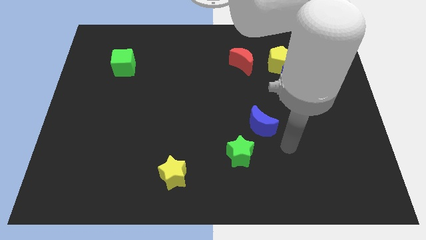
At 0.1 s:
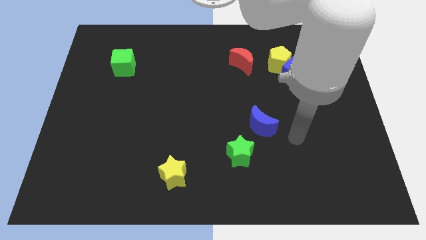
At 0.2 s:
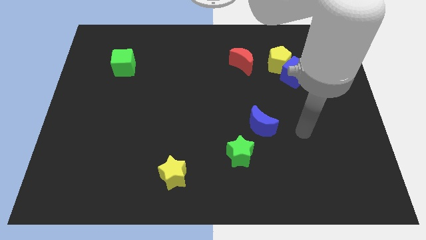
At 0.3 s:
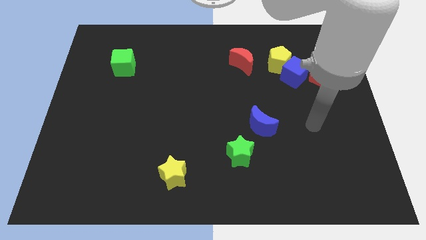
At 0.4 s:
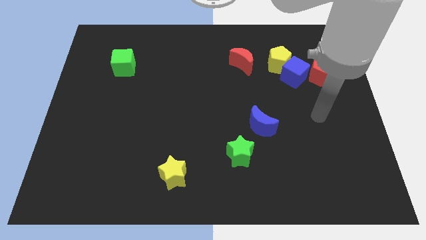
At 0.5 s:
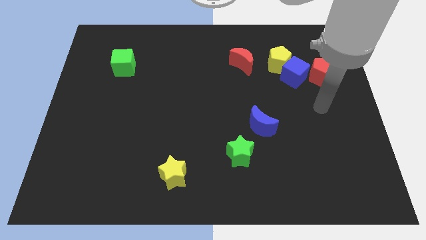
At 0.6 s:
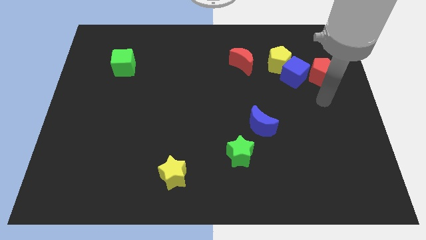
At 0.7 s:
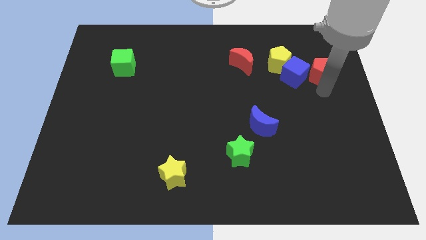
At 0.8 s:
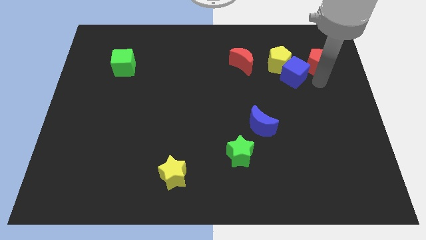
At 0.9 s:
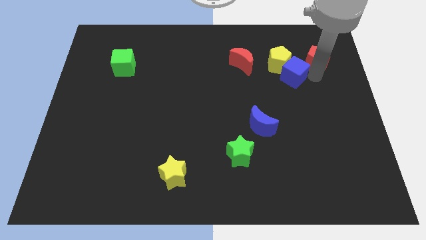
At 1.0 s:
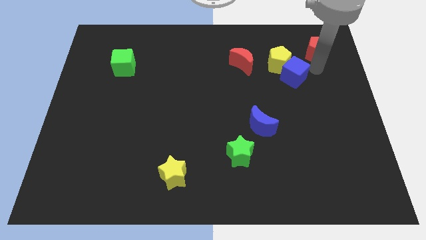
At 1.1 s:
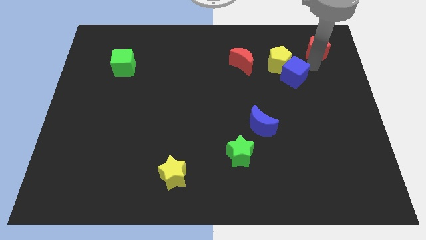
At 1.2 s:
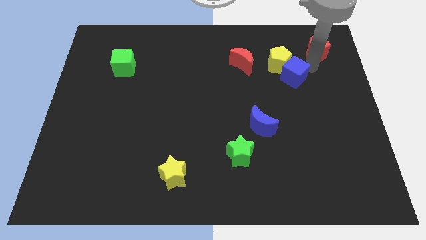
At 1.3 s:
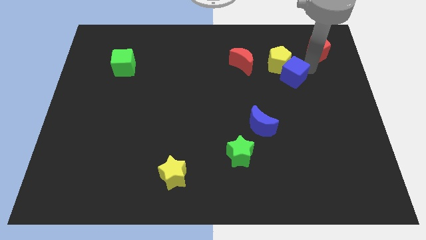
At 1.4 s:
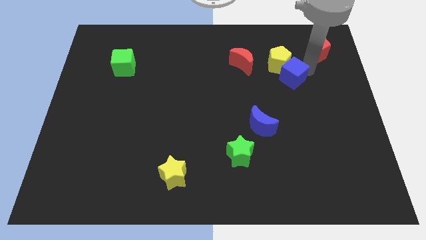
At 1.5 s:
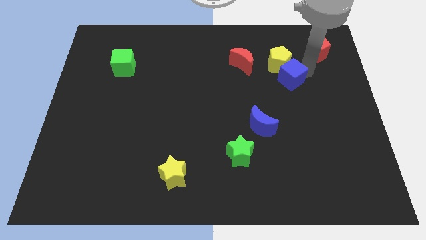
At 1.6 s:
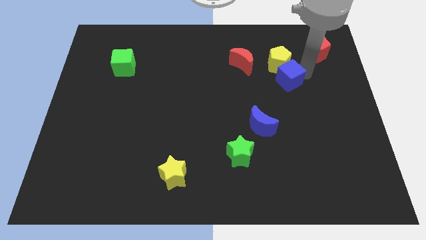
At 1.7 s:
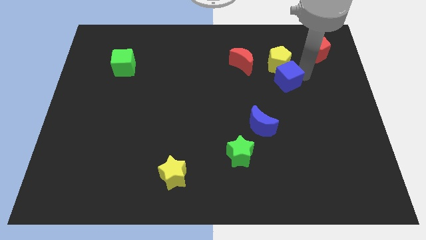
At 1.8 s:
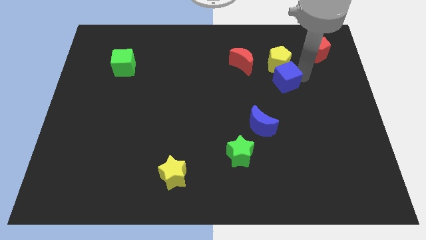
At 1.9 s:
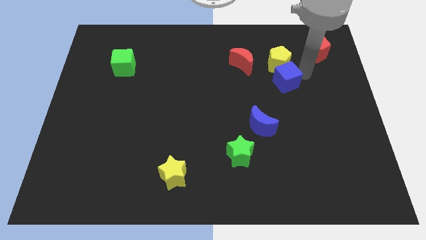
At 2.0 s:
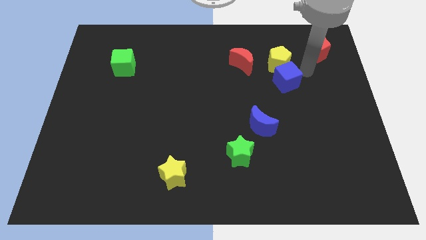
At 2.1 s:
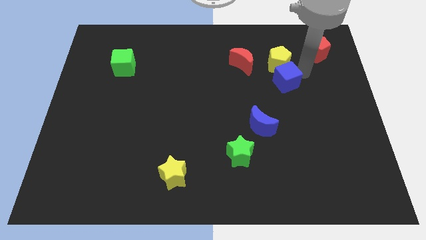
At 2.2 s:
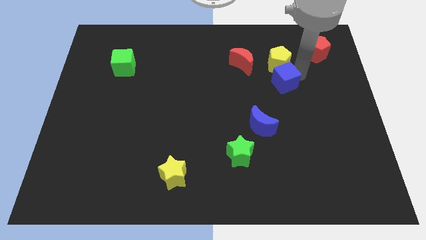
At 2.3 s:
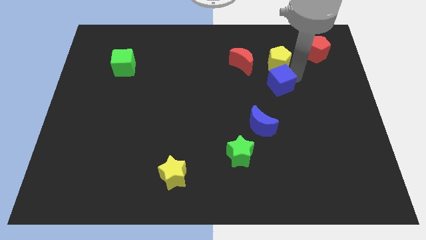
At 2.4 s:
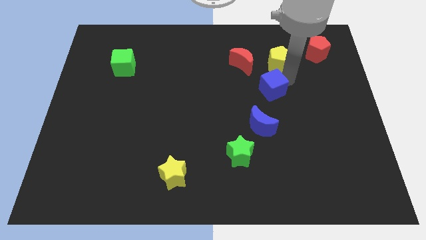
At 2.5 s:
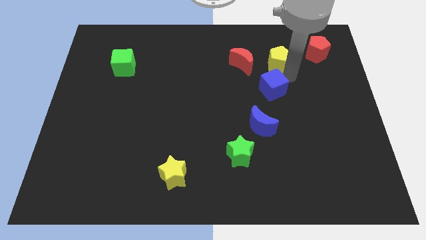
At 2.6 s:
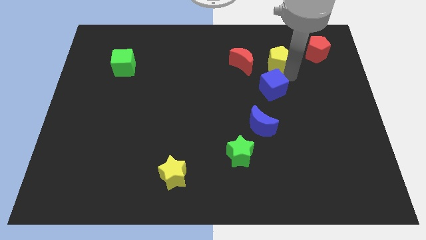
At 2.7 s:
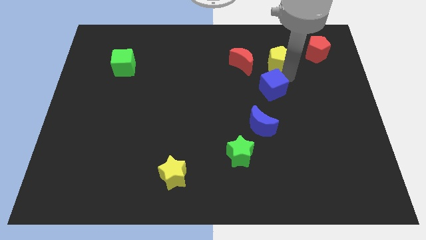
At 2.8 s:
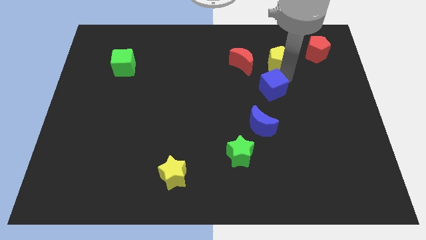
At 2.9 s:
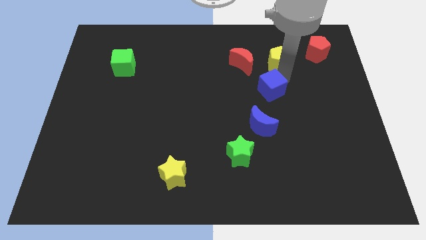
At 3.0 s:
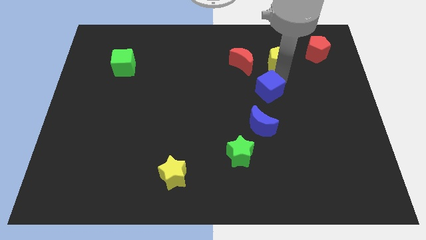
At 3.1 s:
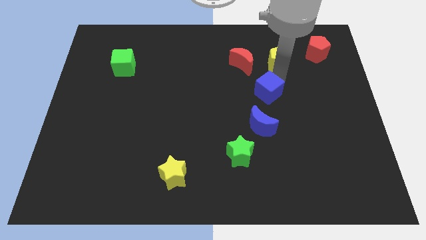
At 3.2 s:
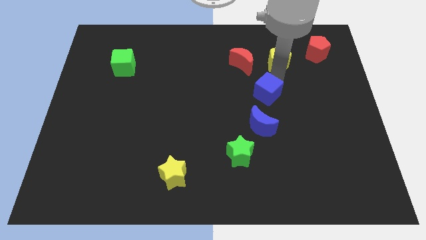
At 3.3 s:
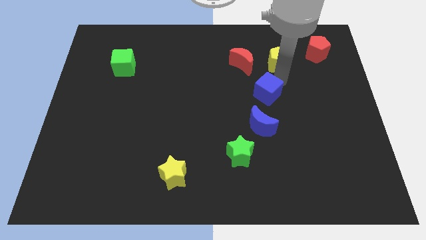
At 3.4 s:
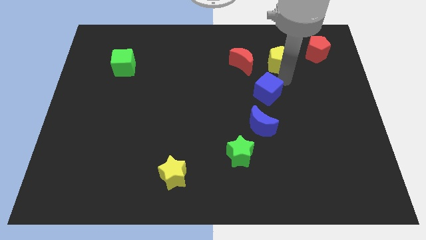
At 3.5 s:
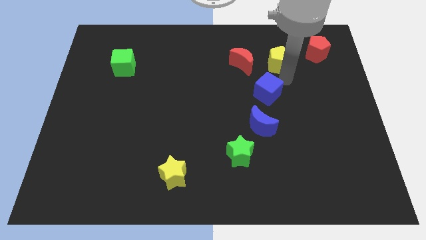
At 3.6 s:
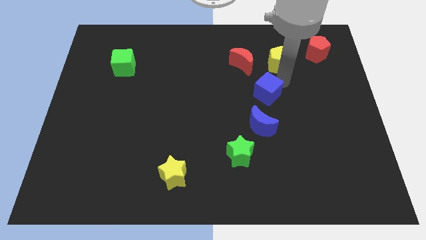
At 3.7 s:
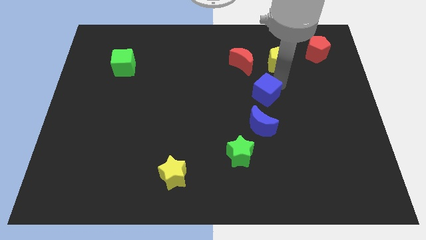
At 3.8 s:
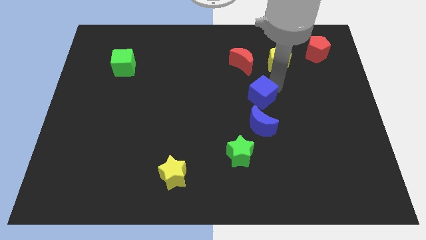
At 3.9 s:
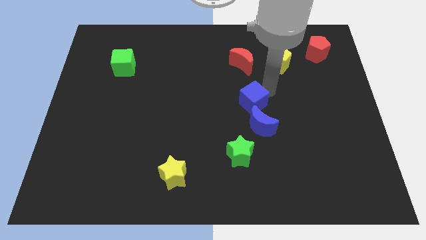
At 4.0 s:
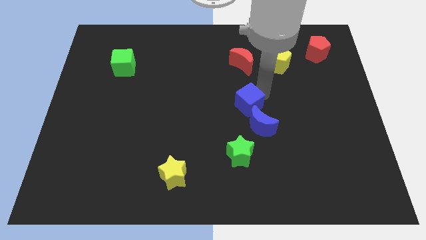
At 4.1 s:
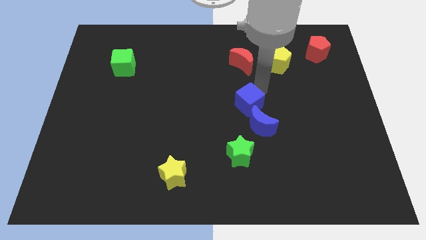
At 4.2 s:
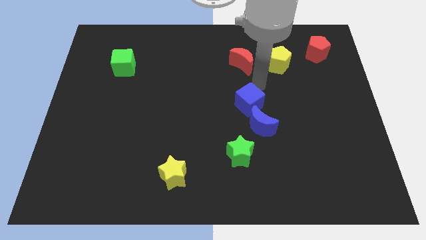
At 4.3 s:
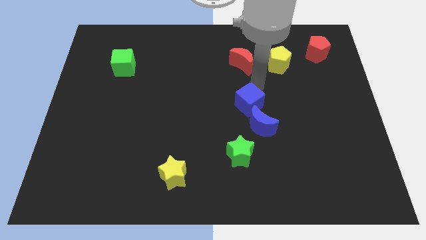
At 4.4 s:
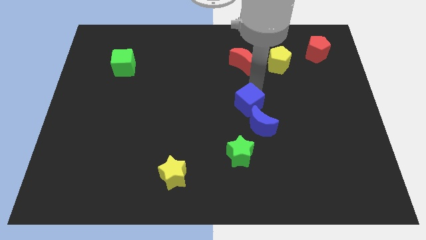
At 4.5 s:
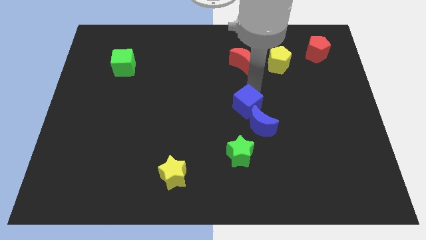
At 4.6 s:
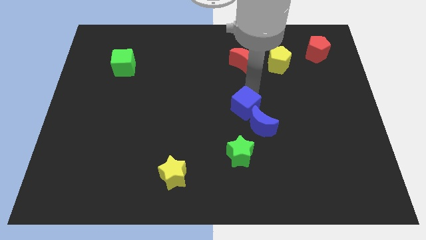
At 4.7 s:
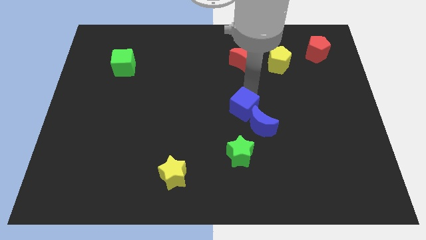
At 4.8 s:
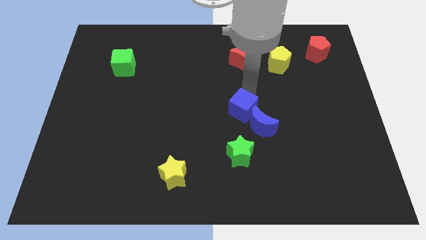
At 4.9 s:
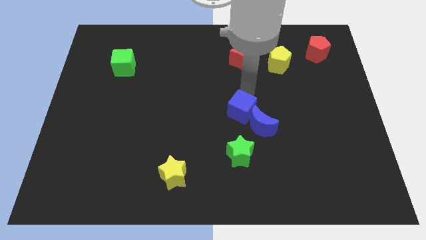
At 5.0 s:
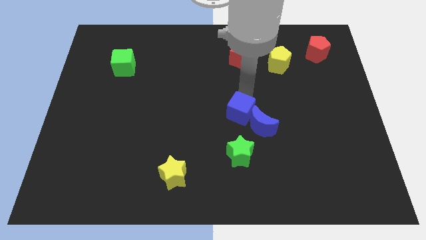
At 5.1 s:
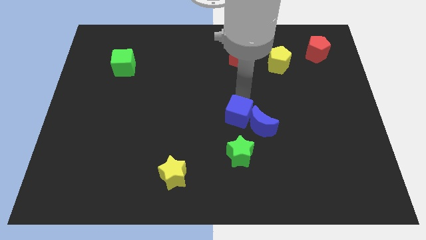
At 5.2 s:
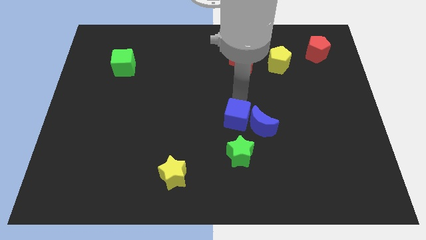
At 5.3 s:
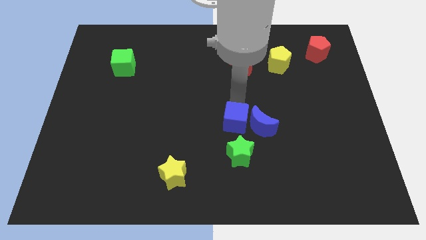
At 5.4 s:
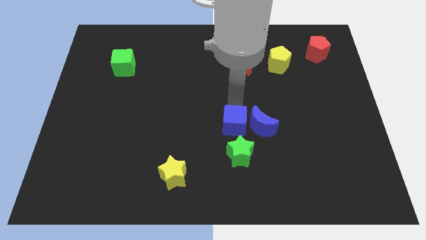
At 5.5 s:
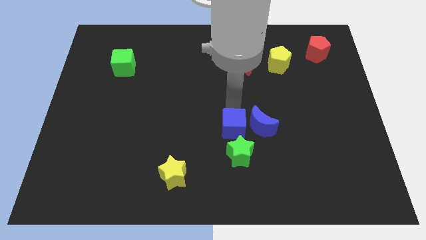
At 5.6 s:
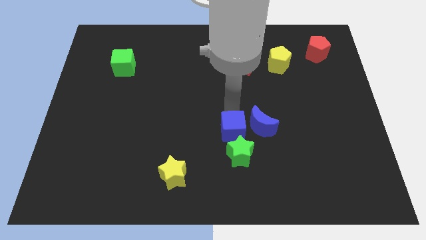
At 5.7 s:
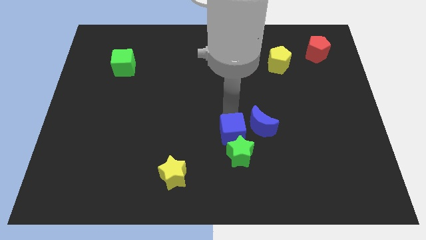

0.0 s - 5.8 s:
put the blue cube next to the green star

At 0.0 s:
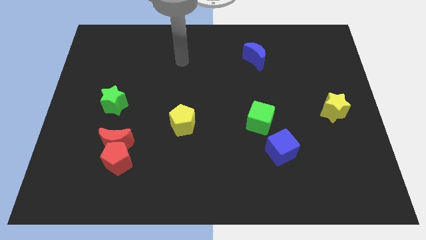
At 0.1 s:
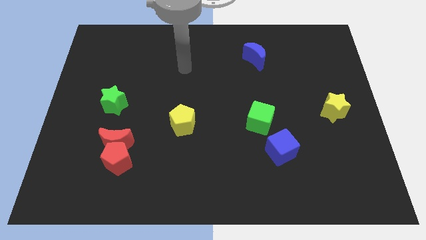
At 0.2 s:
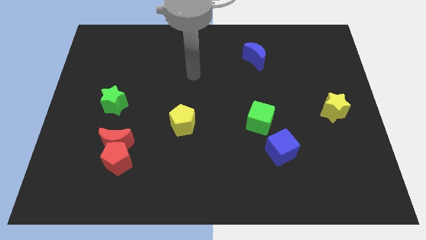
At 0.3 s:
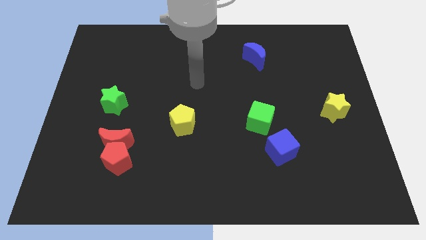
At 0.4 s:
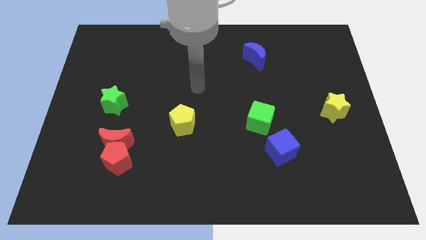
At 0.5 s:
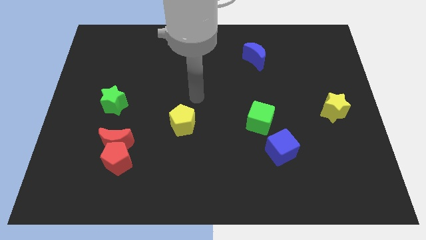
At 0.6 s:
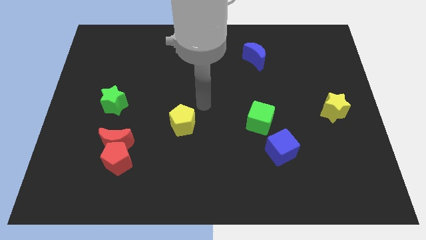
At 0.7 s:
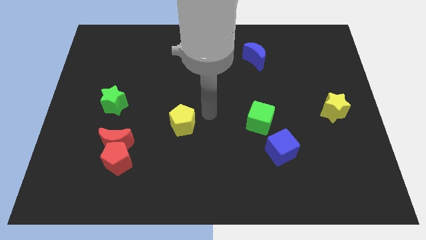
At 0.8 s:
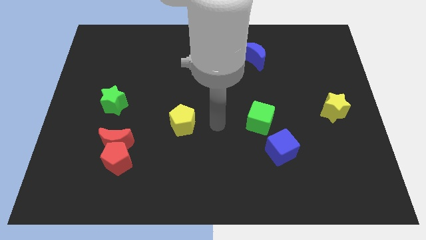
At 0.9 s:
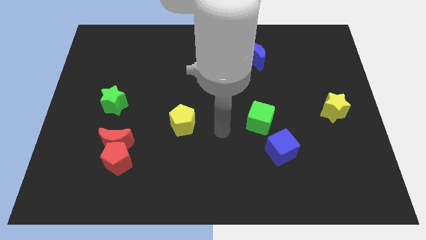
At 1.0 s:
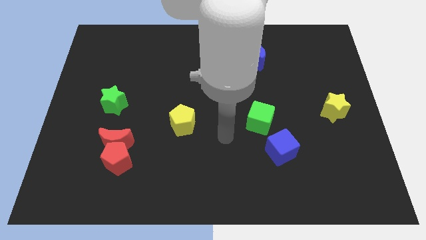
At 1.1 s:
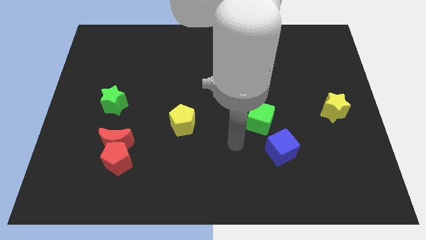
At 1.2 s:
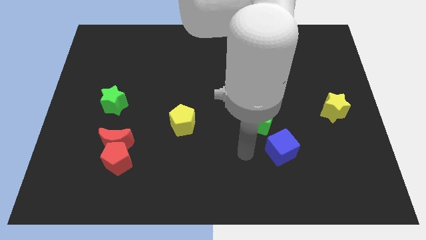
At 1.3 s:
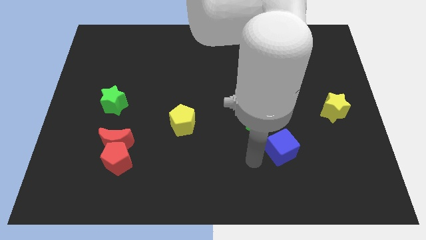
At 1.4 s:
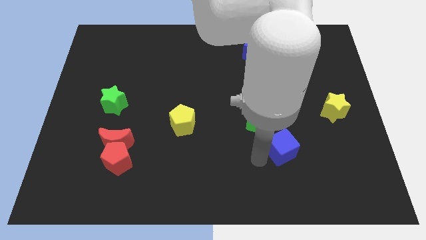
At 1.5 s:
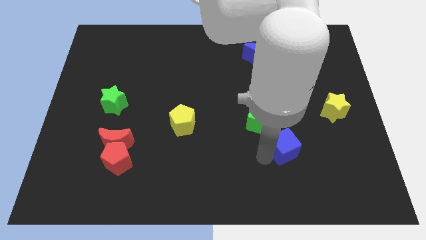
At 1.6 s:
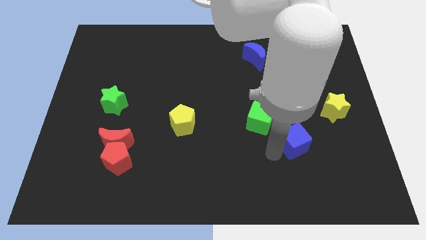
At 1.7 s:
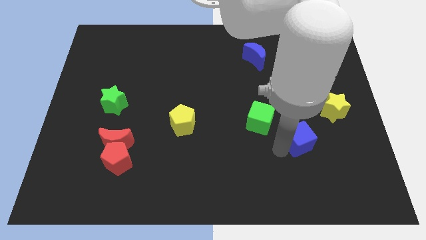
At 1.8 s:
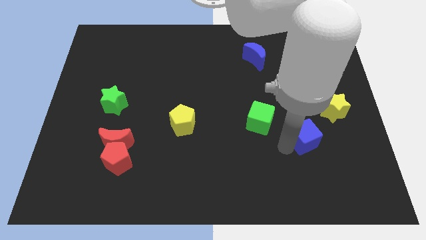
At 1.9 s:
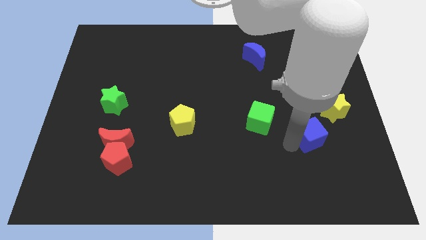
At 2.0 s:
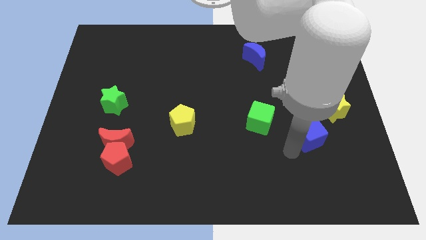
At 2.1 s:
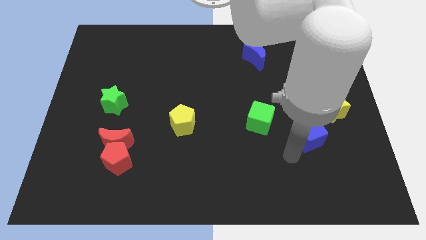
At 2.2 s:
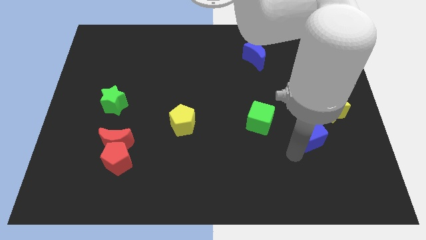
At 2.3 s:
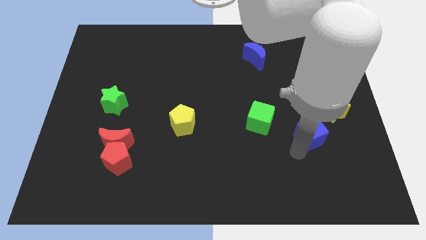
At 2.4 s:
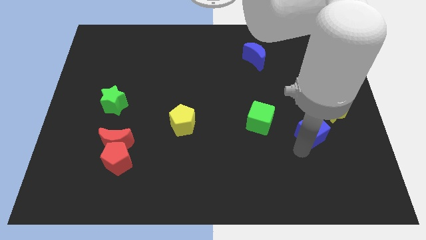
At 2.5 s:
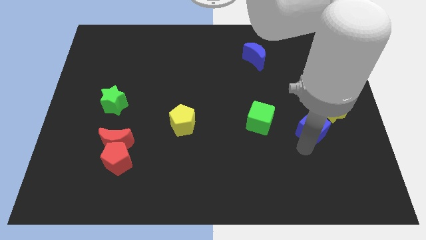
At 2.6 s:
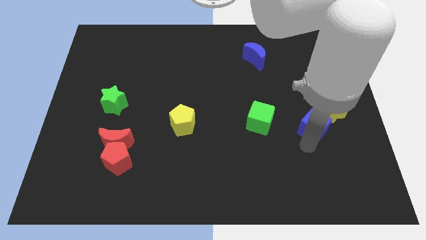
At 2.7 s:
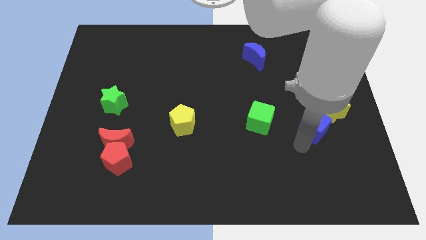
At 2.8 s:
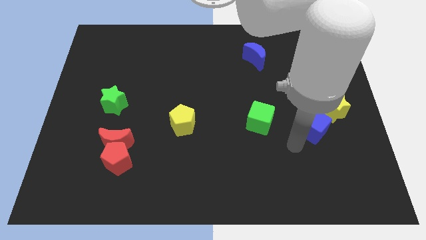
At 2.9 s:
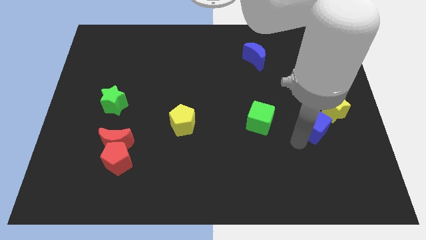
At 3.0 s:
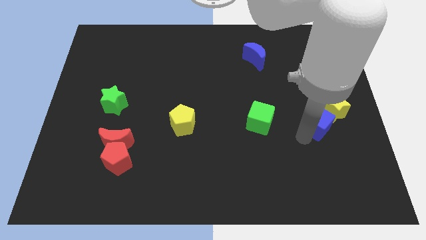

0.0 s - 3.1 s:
move the blue cube close to the yellow star
